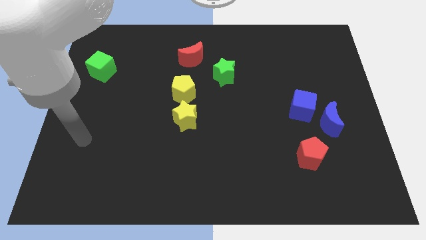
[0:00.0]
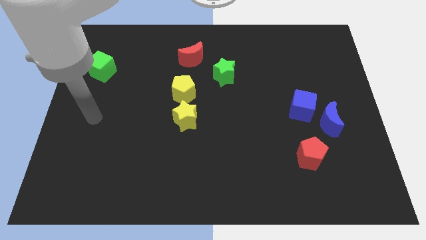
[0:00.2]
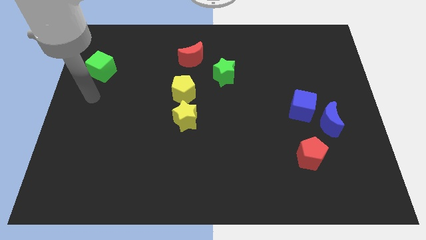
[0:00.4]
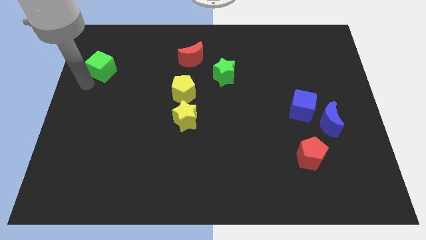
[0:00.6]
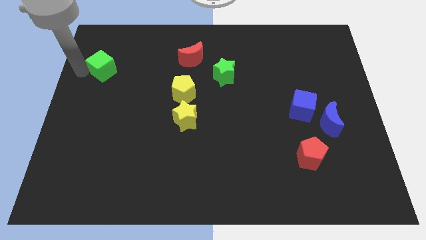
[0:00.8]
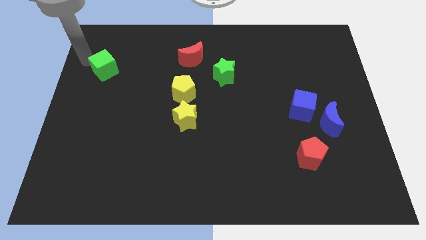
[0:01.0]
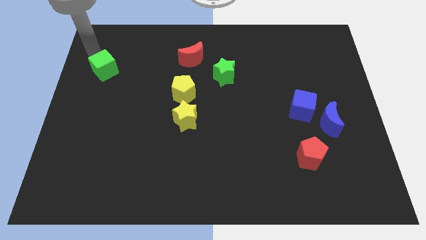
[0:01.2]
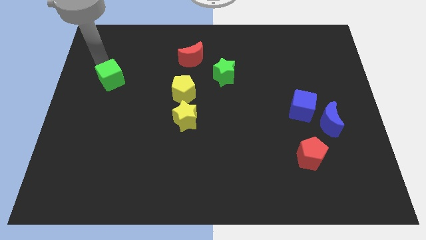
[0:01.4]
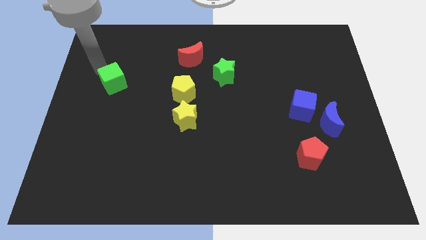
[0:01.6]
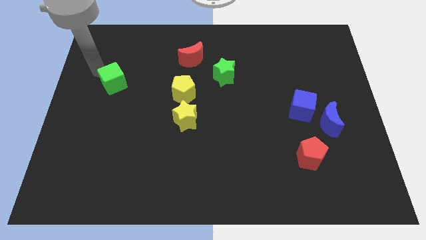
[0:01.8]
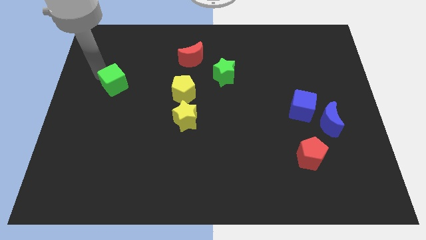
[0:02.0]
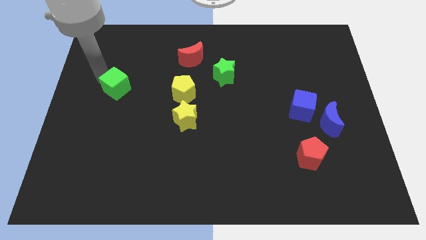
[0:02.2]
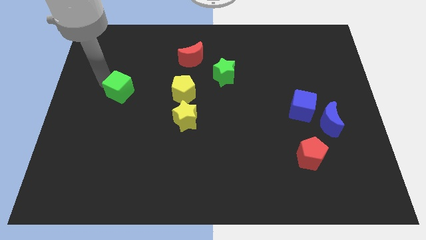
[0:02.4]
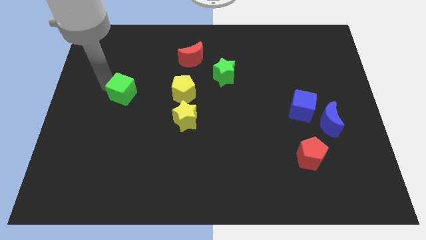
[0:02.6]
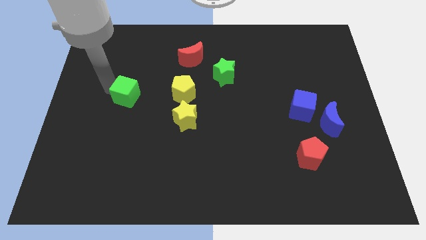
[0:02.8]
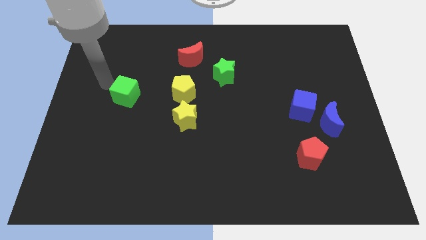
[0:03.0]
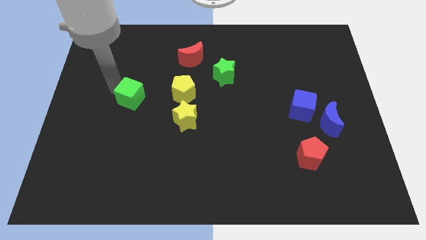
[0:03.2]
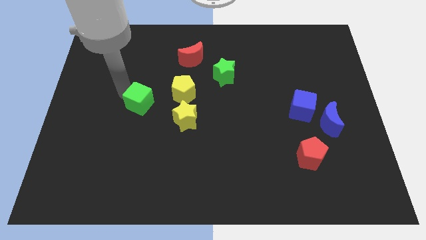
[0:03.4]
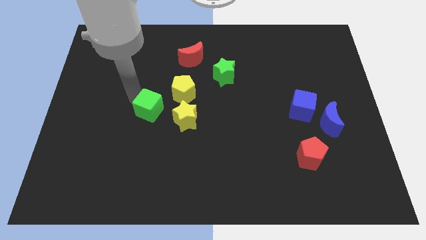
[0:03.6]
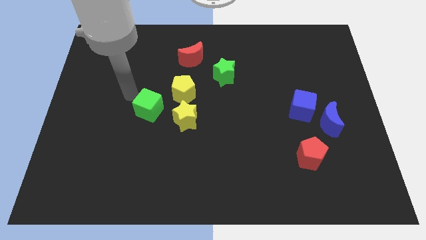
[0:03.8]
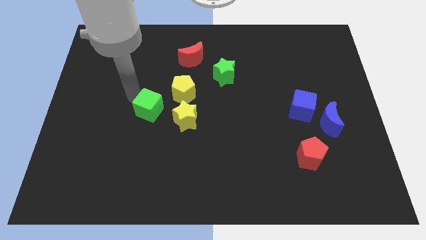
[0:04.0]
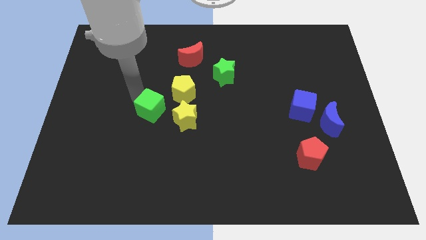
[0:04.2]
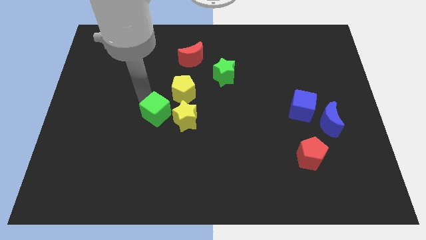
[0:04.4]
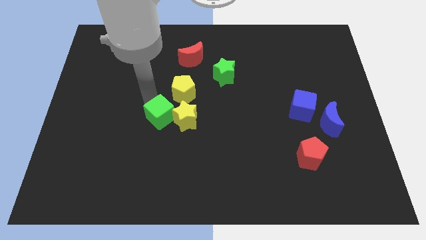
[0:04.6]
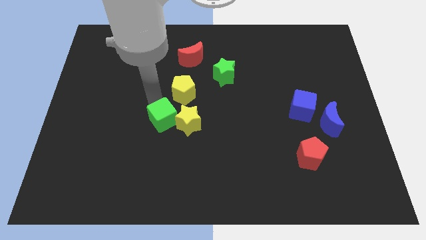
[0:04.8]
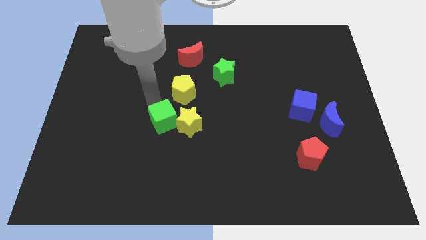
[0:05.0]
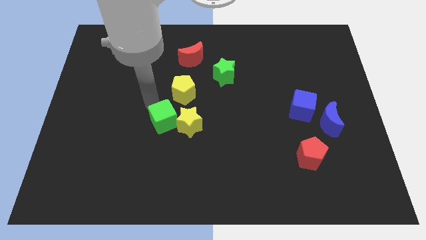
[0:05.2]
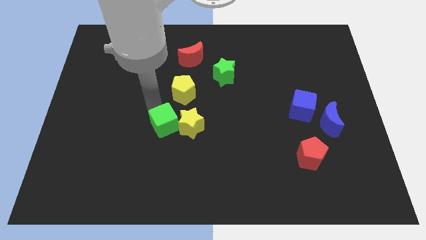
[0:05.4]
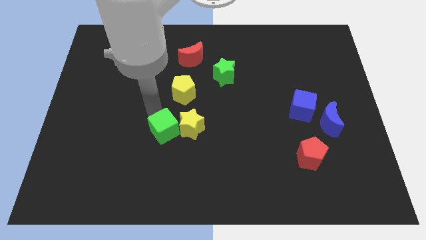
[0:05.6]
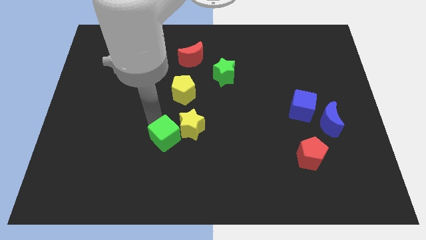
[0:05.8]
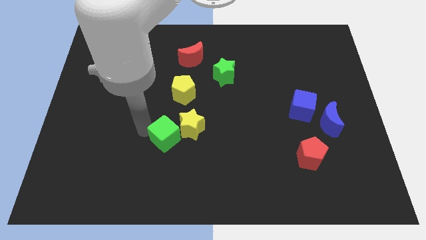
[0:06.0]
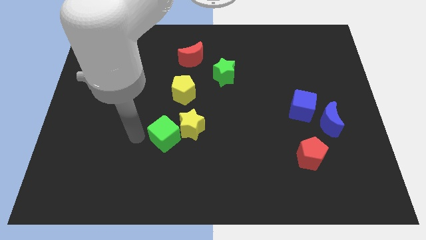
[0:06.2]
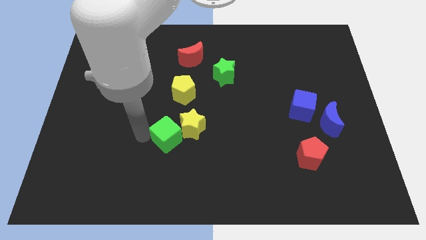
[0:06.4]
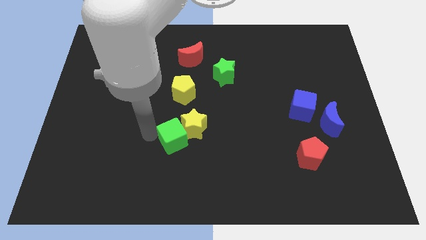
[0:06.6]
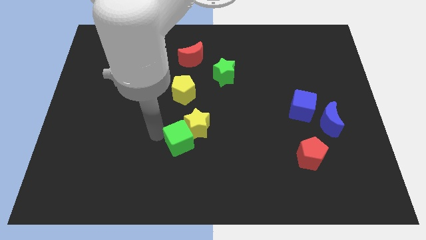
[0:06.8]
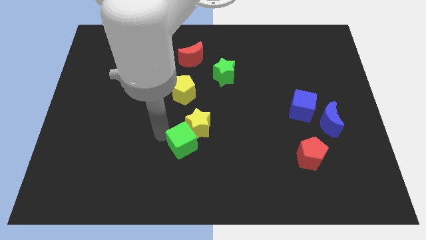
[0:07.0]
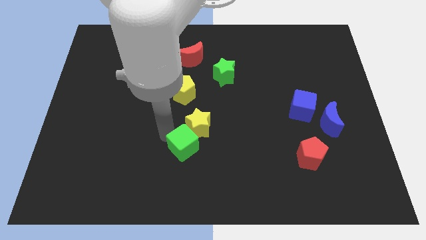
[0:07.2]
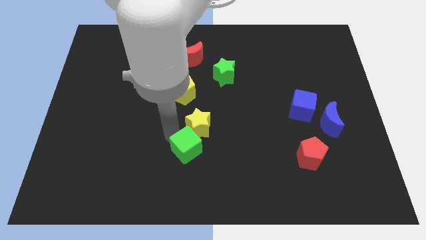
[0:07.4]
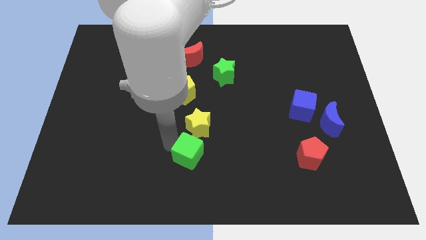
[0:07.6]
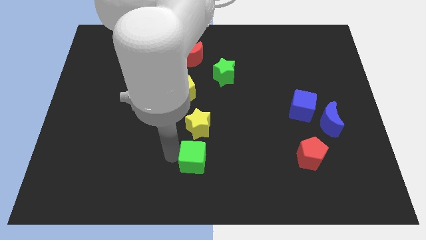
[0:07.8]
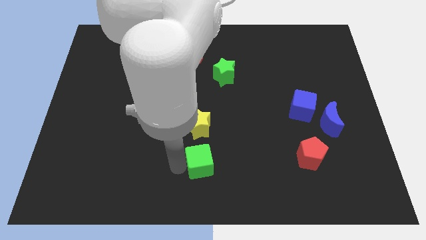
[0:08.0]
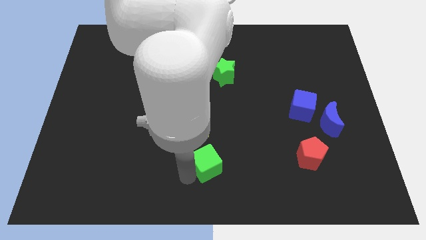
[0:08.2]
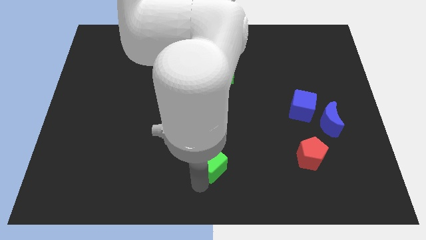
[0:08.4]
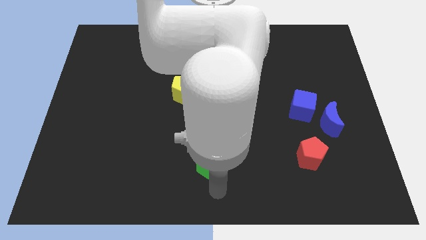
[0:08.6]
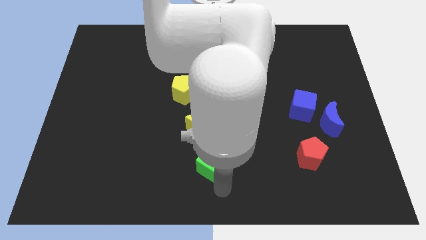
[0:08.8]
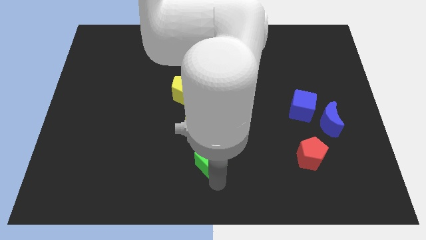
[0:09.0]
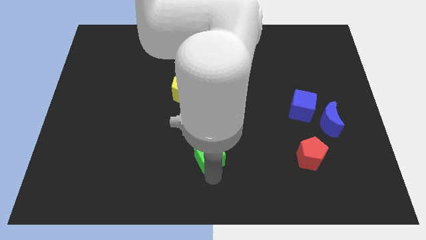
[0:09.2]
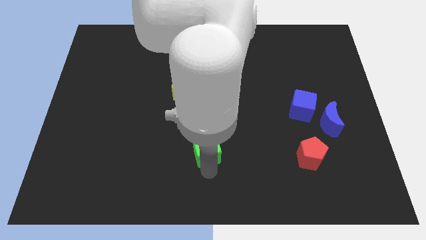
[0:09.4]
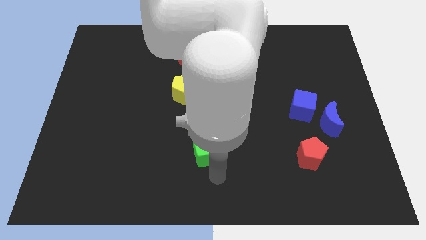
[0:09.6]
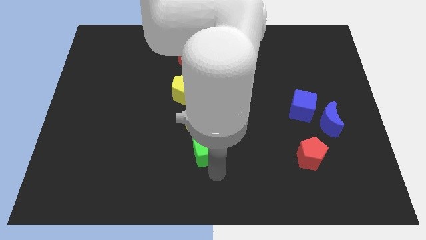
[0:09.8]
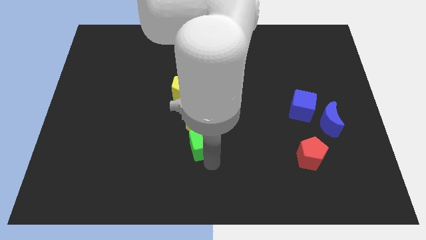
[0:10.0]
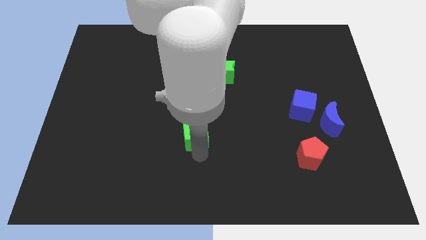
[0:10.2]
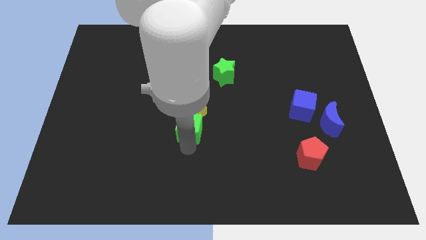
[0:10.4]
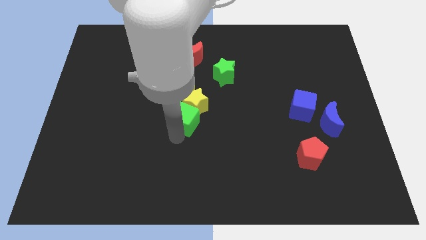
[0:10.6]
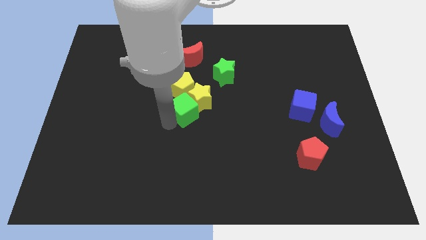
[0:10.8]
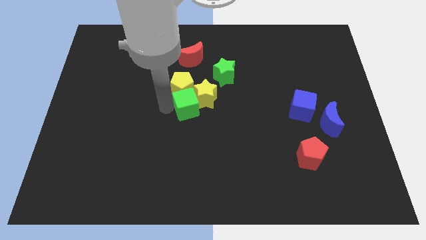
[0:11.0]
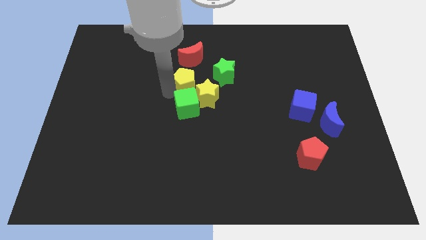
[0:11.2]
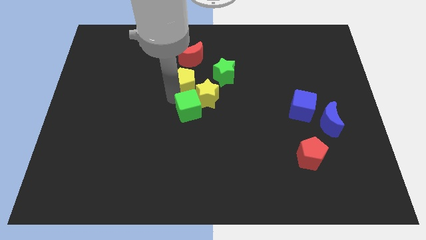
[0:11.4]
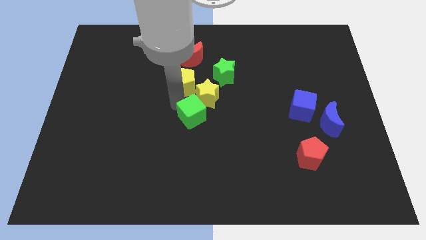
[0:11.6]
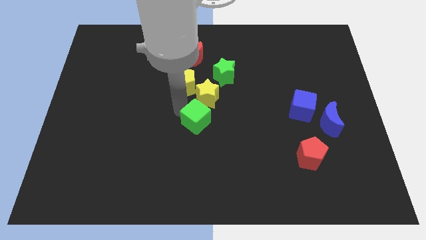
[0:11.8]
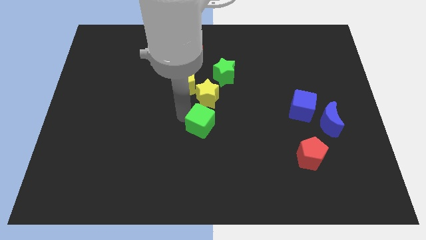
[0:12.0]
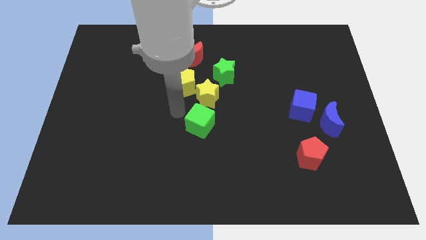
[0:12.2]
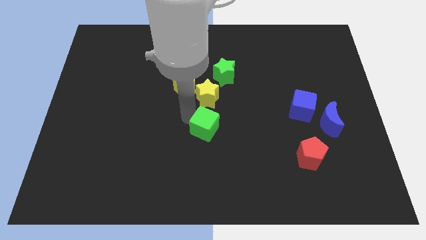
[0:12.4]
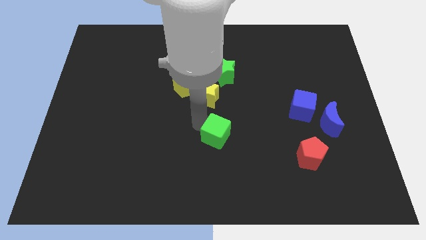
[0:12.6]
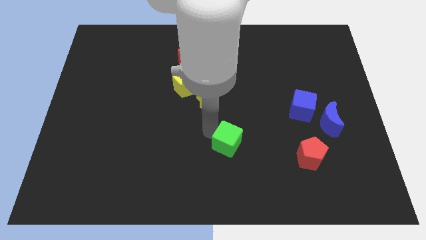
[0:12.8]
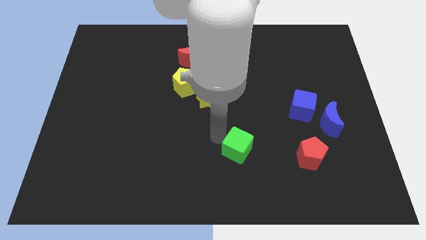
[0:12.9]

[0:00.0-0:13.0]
slide the green cube left of the red pentagon

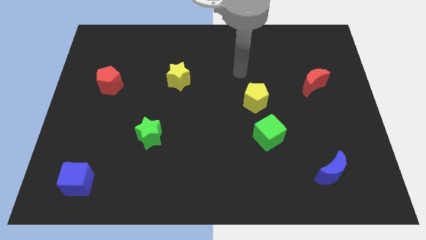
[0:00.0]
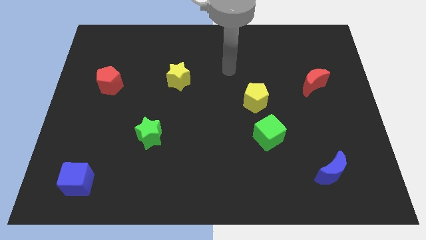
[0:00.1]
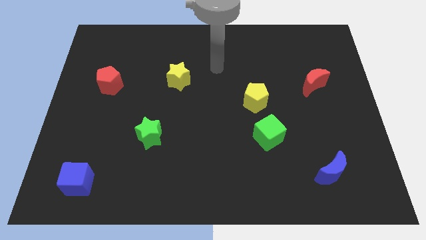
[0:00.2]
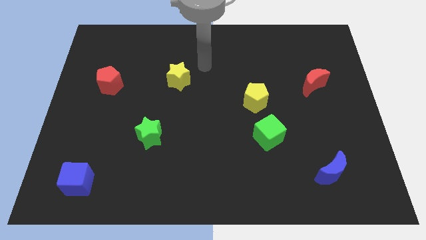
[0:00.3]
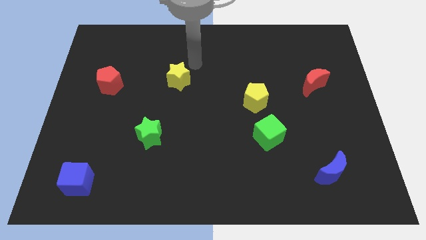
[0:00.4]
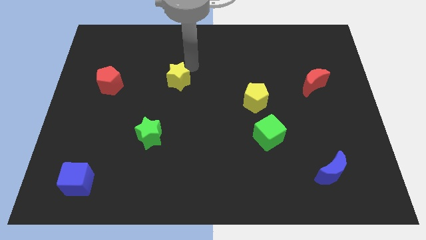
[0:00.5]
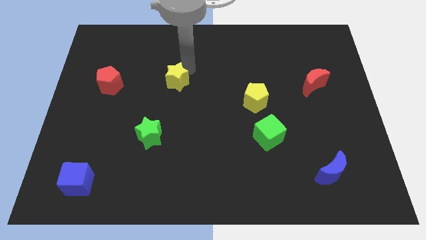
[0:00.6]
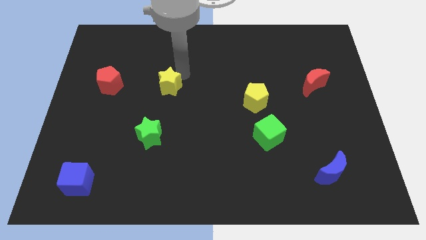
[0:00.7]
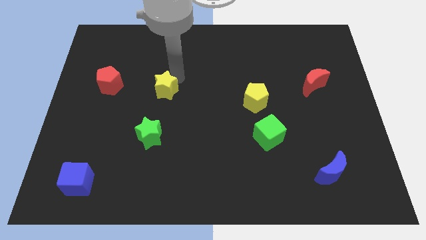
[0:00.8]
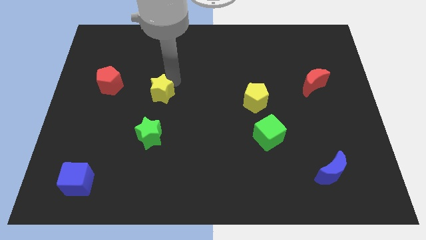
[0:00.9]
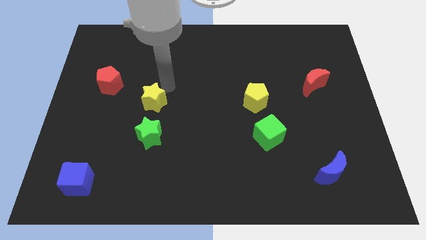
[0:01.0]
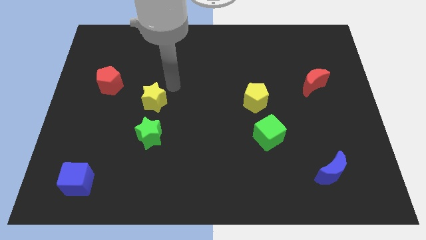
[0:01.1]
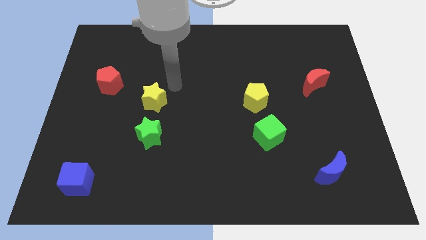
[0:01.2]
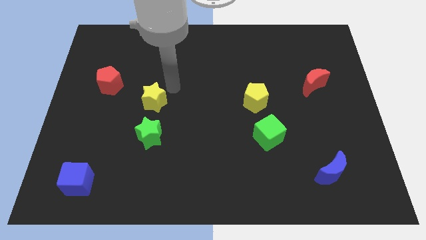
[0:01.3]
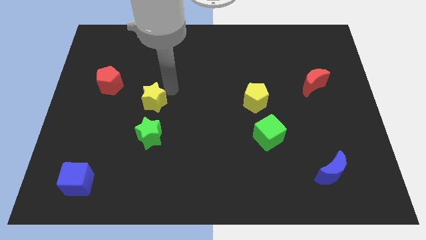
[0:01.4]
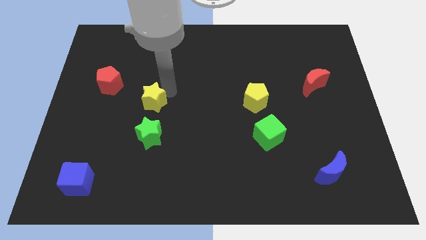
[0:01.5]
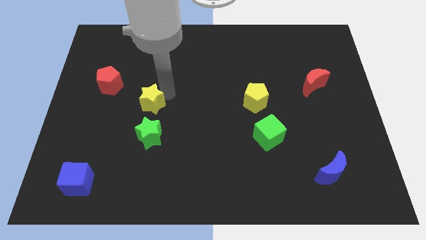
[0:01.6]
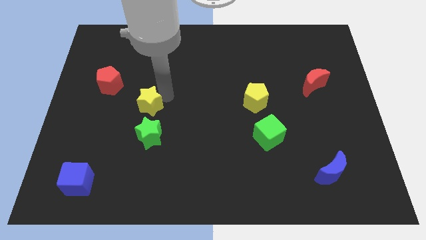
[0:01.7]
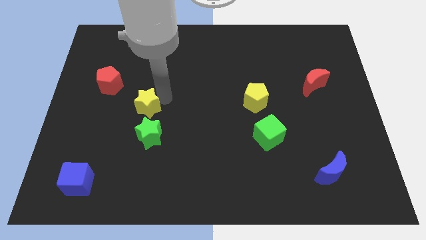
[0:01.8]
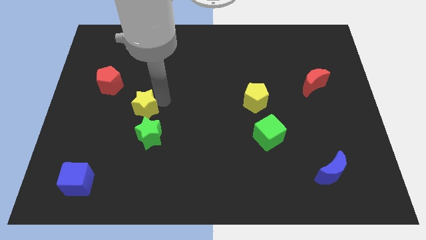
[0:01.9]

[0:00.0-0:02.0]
move the yellow star to the top left side of the green star
